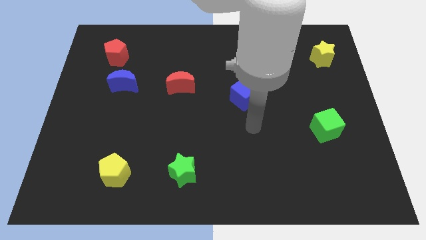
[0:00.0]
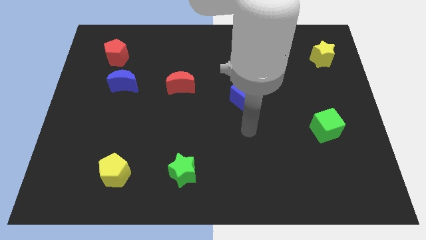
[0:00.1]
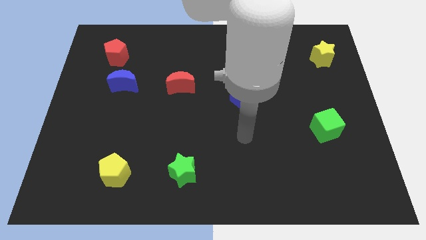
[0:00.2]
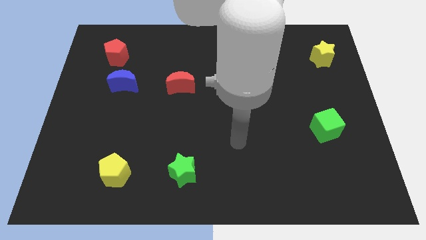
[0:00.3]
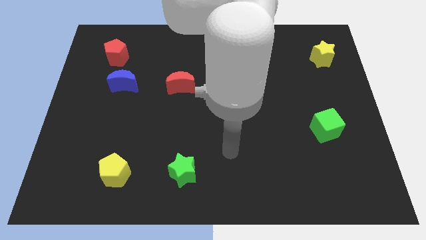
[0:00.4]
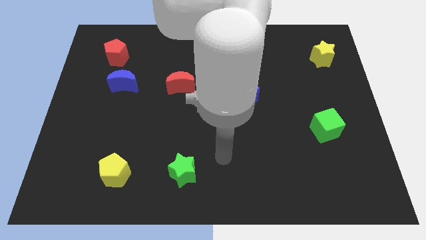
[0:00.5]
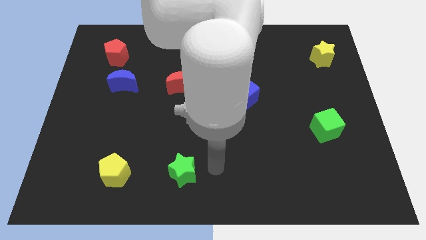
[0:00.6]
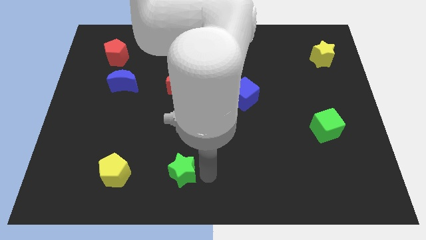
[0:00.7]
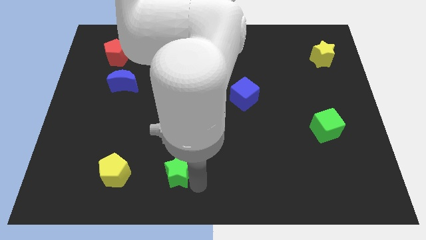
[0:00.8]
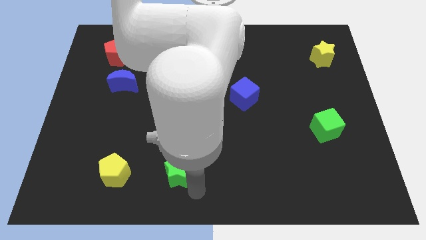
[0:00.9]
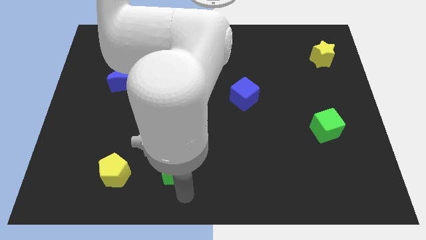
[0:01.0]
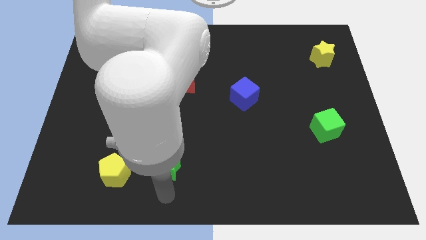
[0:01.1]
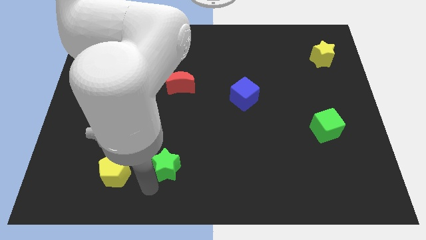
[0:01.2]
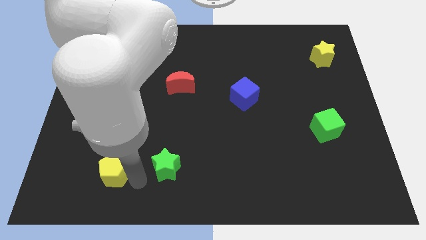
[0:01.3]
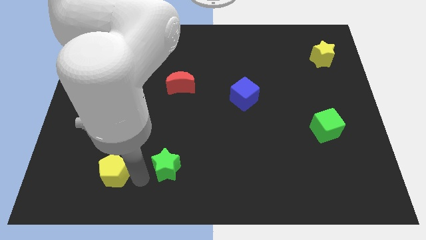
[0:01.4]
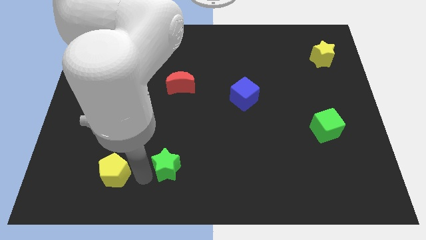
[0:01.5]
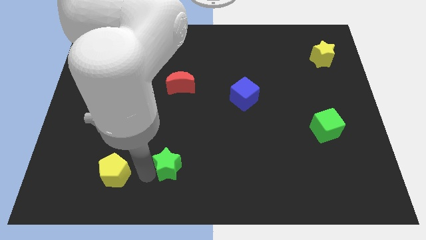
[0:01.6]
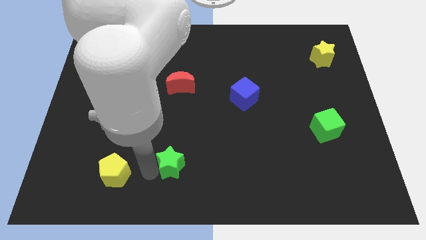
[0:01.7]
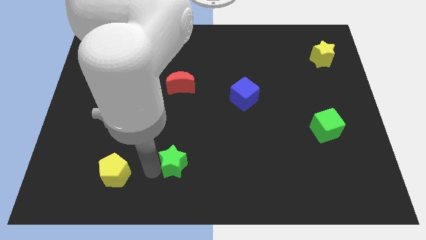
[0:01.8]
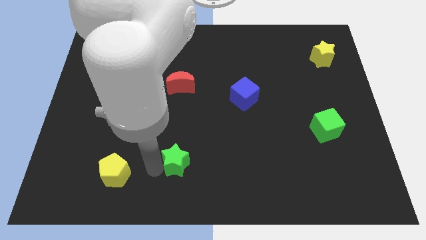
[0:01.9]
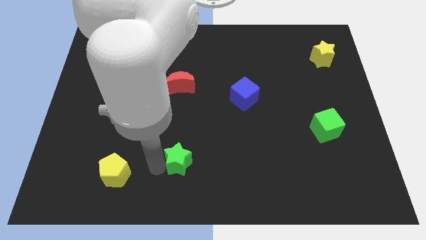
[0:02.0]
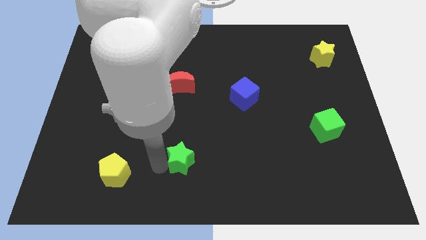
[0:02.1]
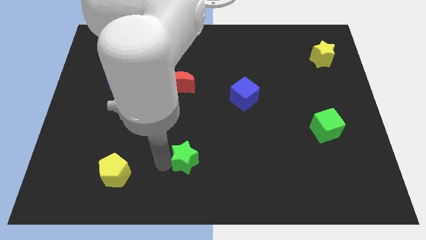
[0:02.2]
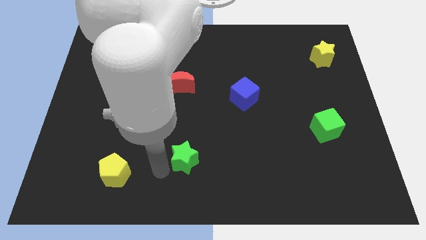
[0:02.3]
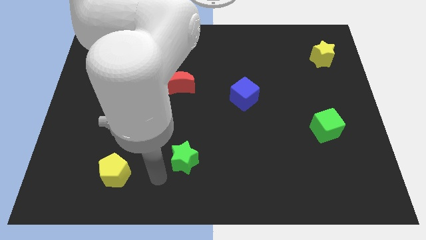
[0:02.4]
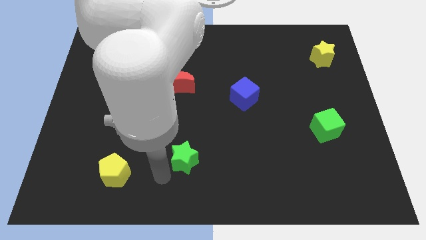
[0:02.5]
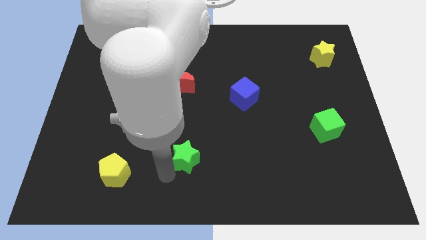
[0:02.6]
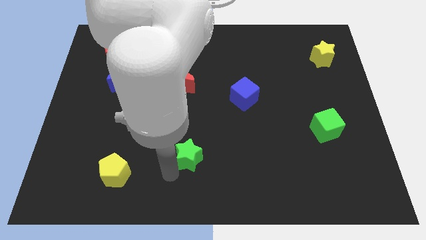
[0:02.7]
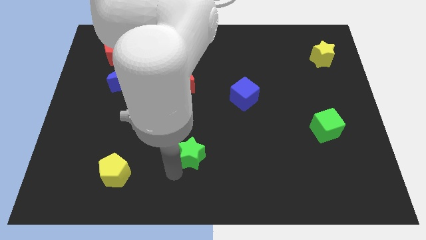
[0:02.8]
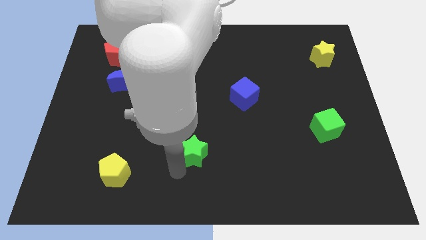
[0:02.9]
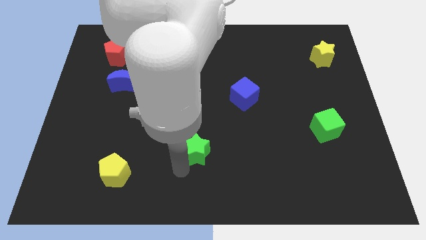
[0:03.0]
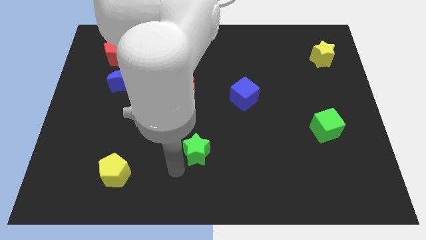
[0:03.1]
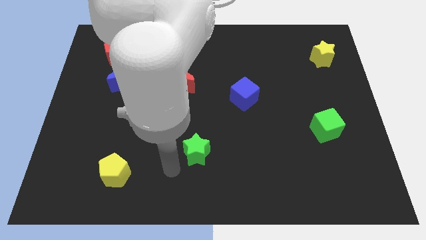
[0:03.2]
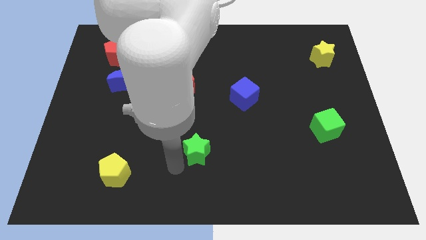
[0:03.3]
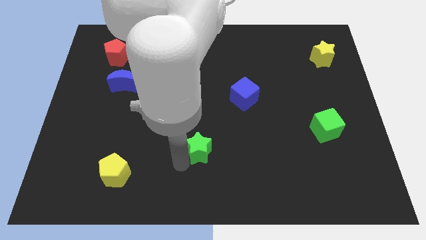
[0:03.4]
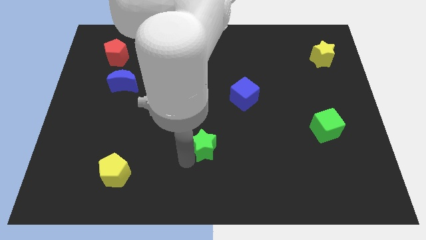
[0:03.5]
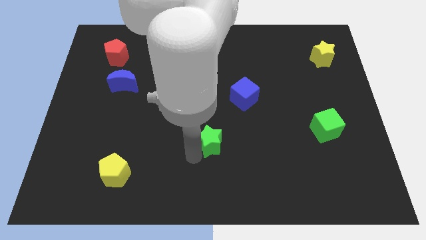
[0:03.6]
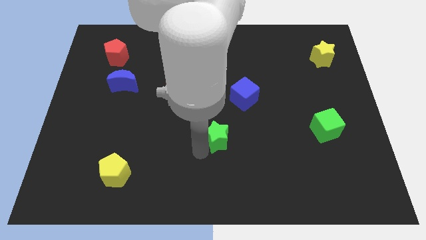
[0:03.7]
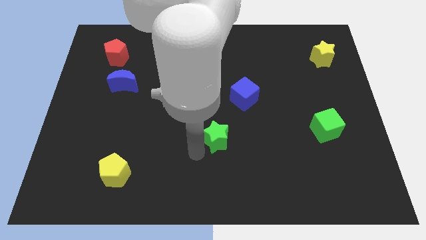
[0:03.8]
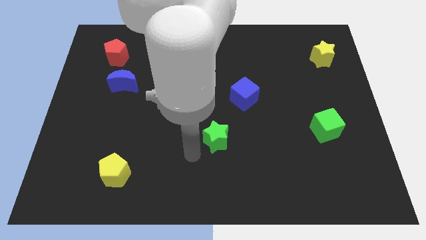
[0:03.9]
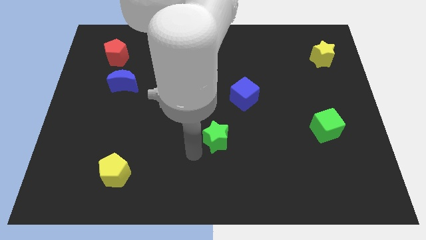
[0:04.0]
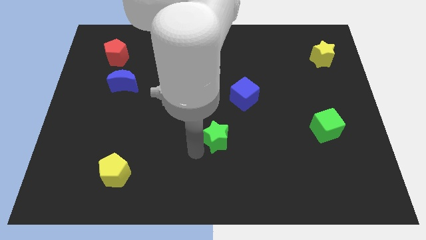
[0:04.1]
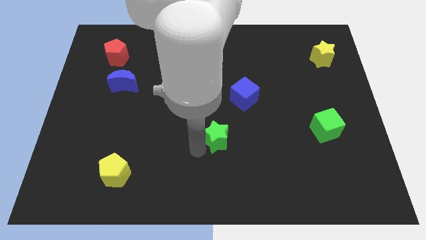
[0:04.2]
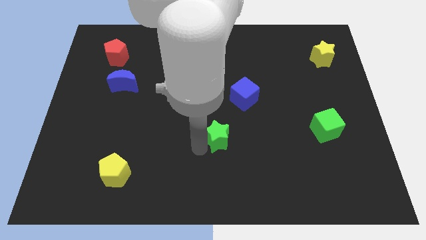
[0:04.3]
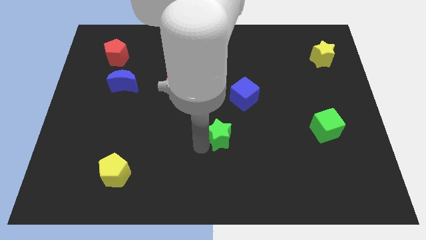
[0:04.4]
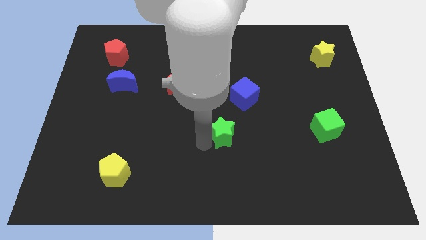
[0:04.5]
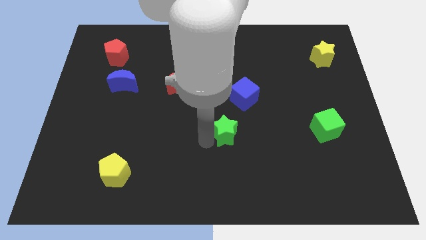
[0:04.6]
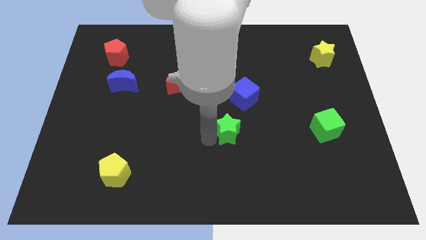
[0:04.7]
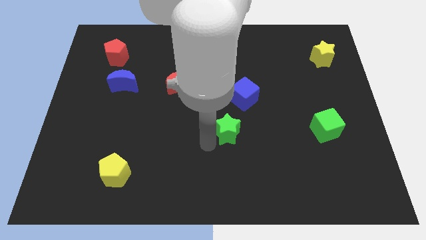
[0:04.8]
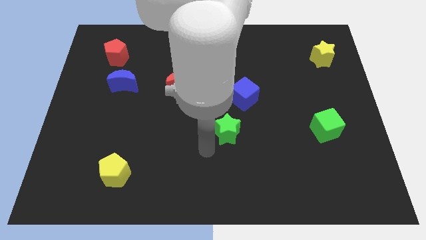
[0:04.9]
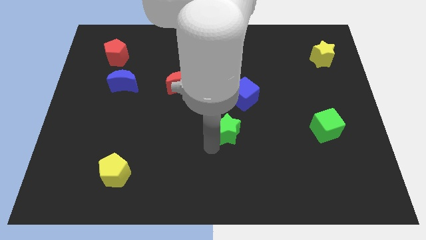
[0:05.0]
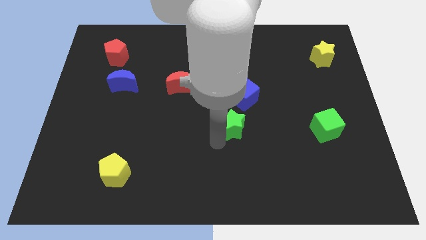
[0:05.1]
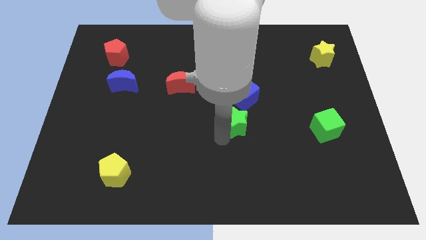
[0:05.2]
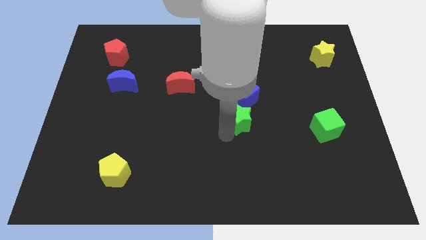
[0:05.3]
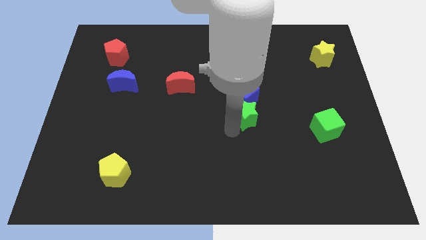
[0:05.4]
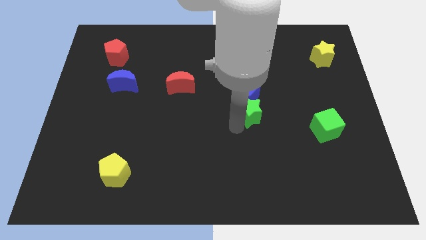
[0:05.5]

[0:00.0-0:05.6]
push the green star upwards and right diagonally

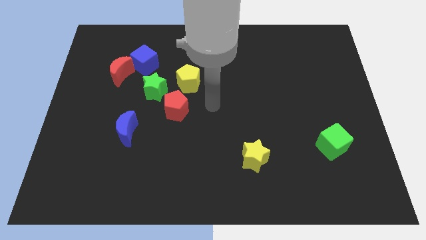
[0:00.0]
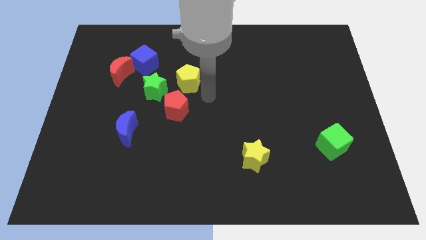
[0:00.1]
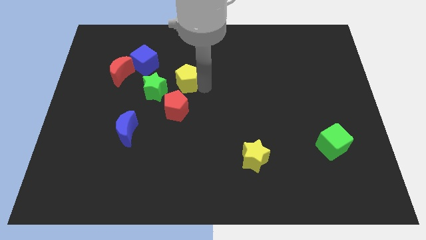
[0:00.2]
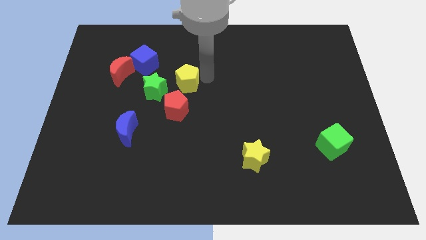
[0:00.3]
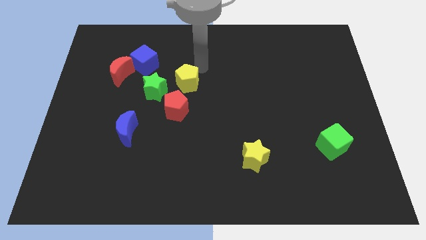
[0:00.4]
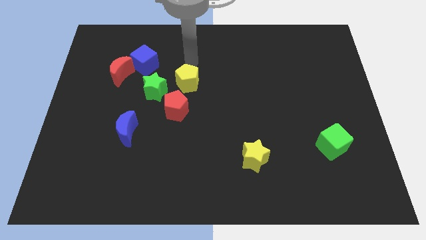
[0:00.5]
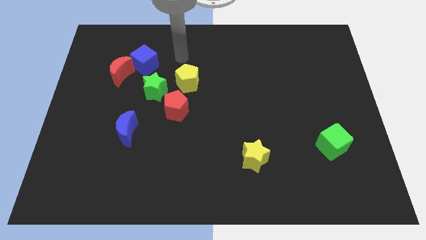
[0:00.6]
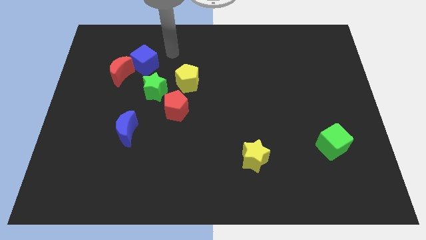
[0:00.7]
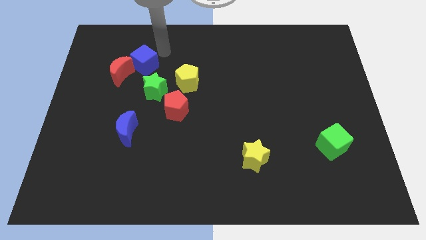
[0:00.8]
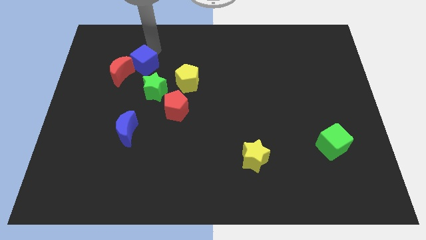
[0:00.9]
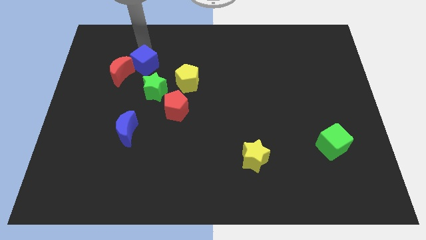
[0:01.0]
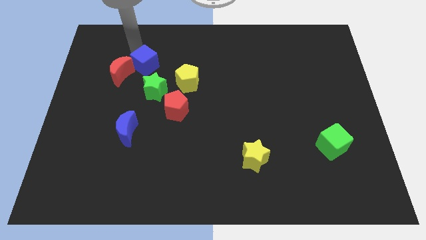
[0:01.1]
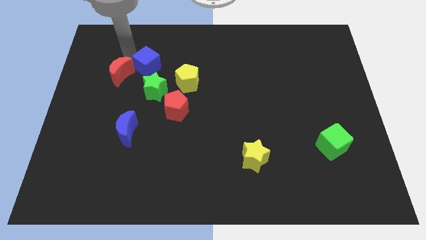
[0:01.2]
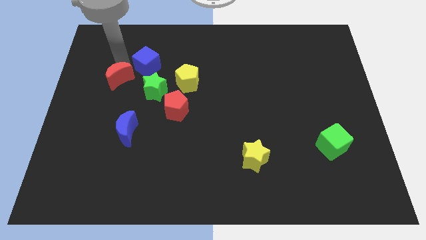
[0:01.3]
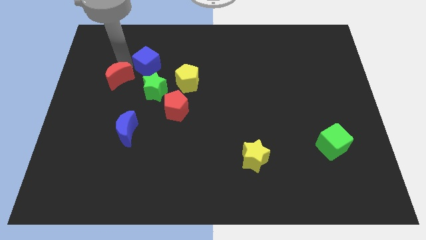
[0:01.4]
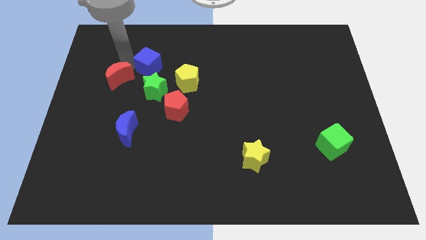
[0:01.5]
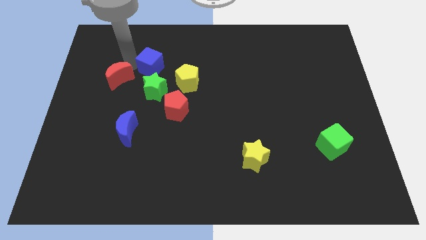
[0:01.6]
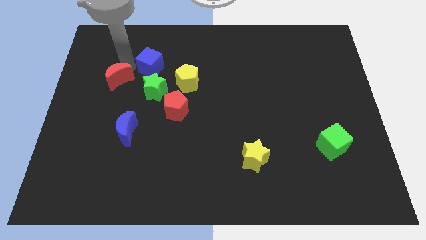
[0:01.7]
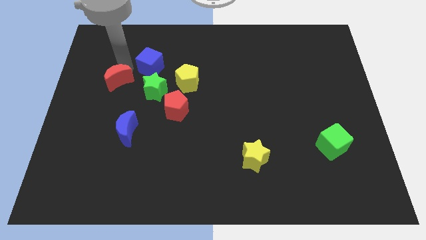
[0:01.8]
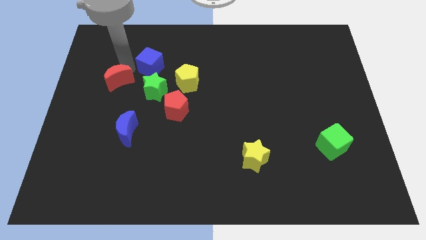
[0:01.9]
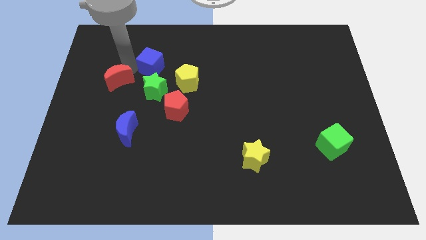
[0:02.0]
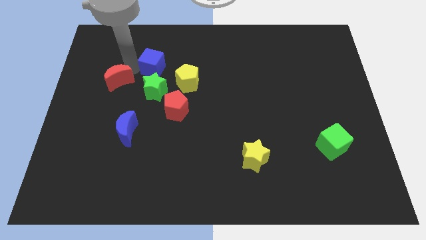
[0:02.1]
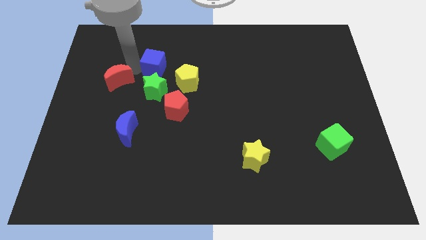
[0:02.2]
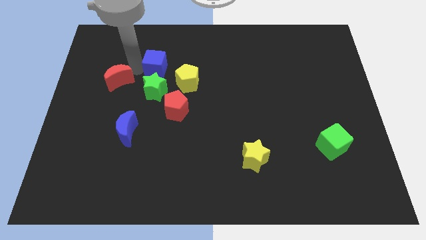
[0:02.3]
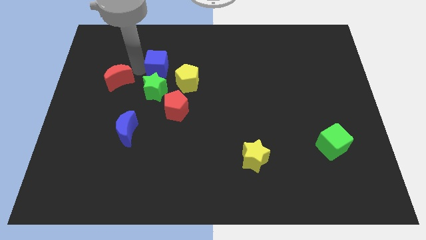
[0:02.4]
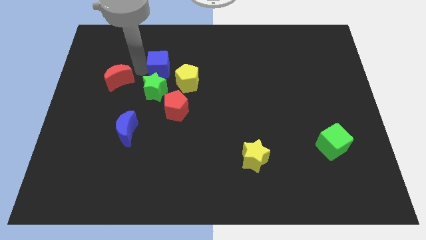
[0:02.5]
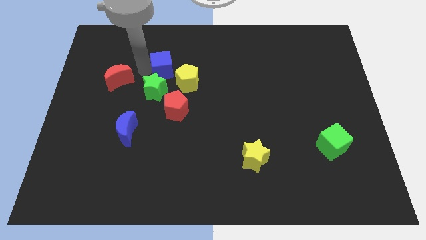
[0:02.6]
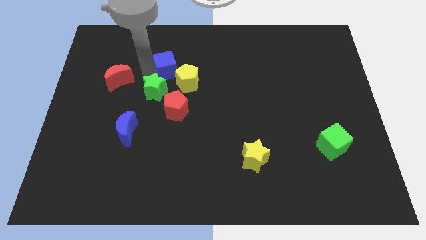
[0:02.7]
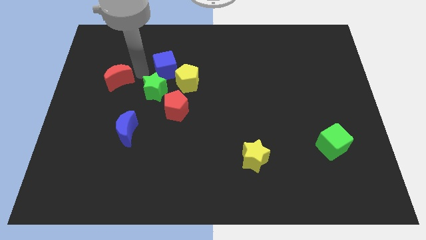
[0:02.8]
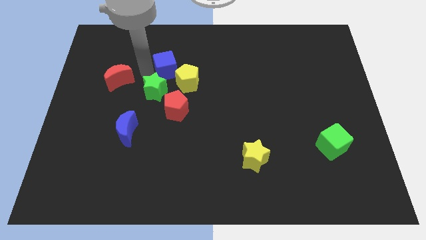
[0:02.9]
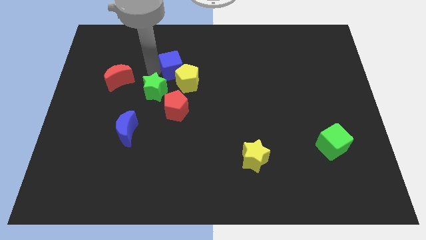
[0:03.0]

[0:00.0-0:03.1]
move the blue cube to the right somewhat
